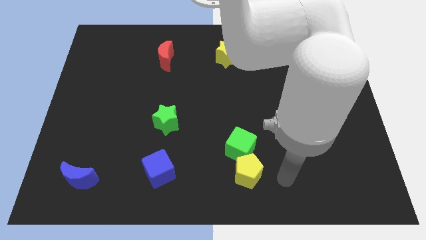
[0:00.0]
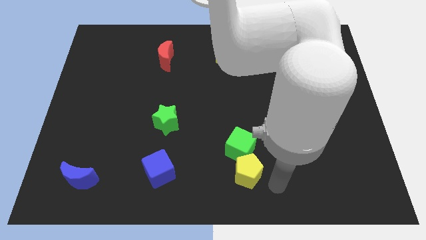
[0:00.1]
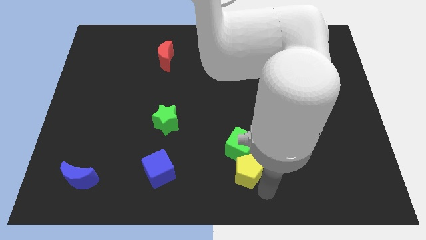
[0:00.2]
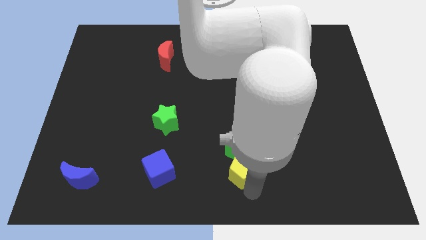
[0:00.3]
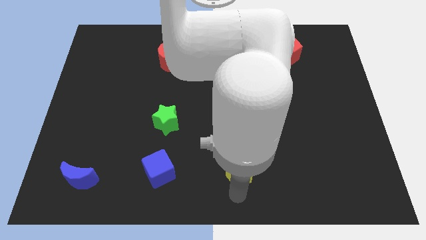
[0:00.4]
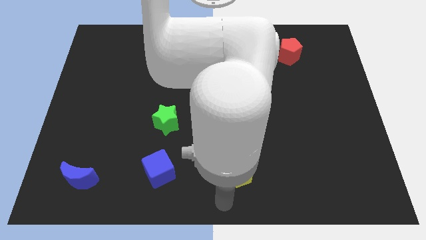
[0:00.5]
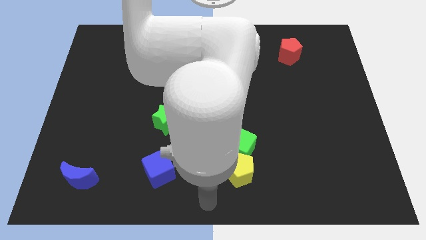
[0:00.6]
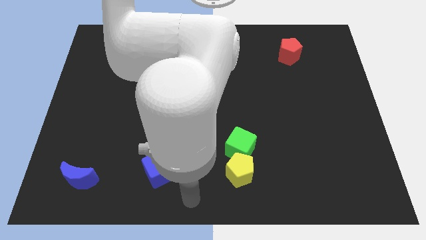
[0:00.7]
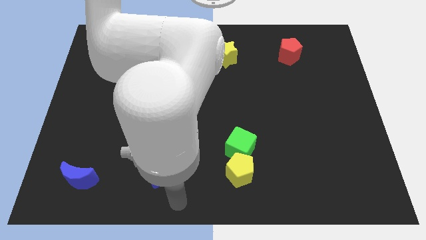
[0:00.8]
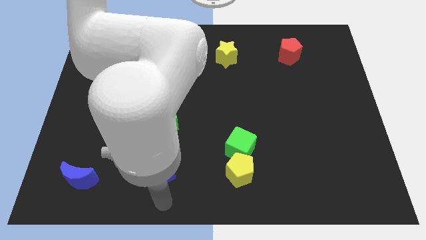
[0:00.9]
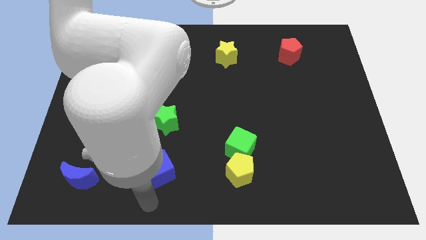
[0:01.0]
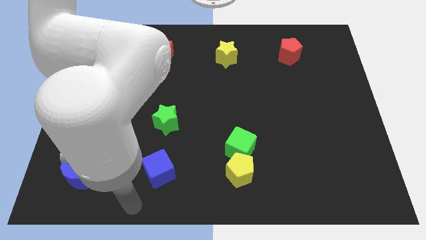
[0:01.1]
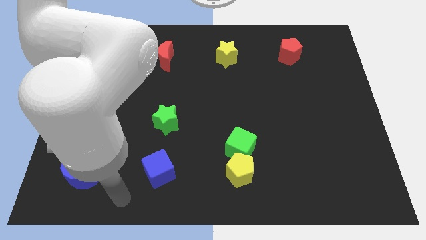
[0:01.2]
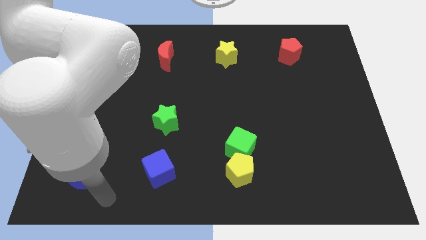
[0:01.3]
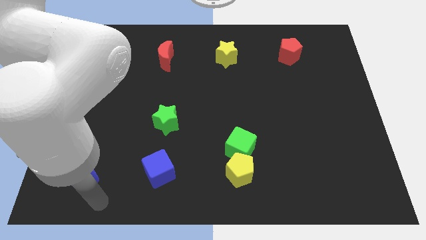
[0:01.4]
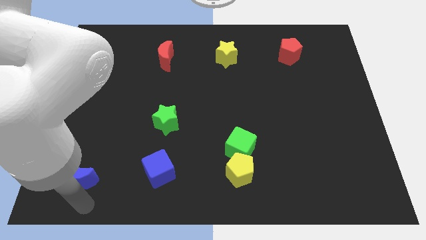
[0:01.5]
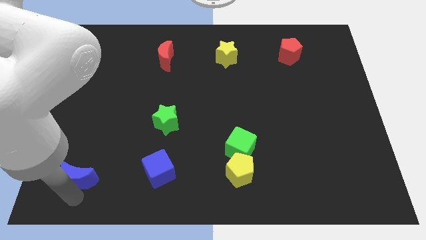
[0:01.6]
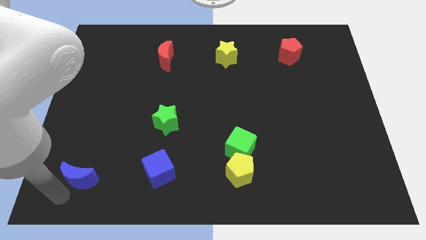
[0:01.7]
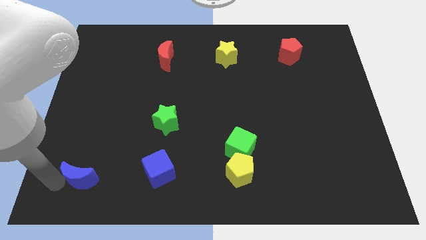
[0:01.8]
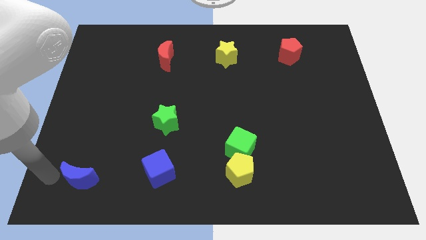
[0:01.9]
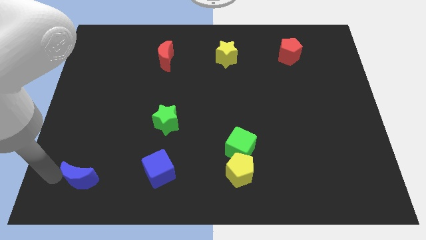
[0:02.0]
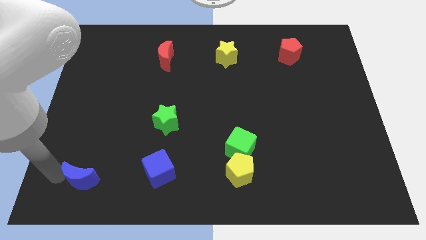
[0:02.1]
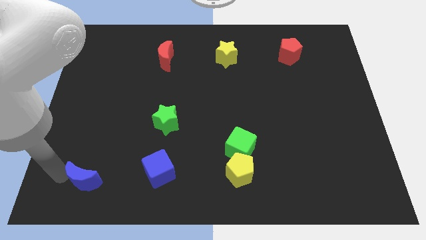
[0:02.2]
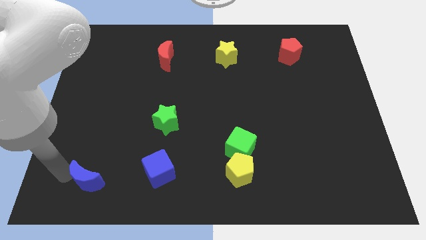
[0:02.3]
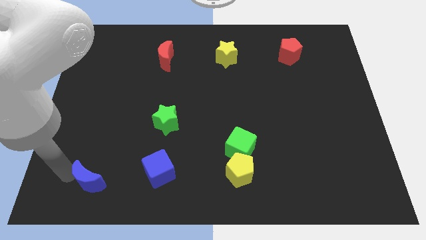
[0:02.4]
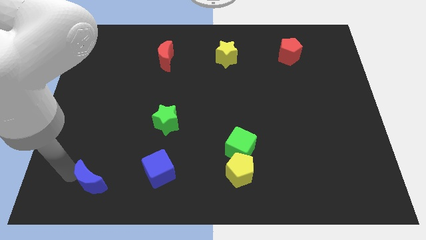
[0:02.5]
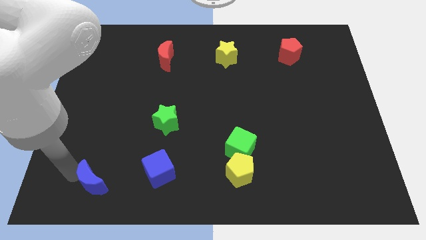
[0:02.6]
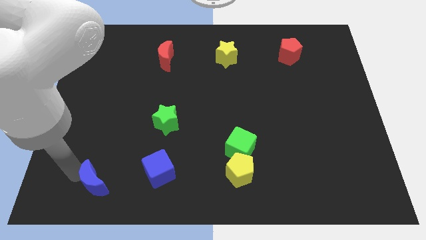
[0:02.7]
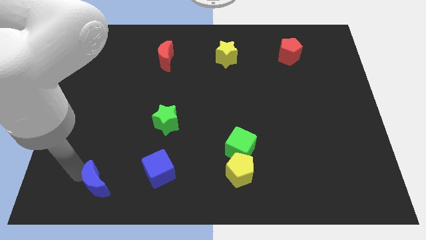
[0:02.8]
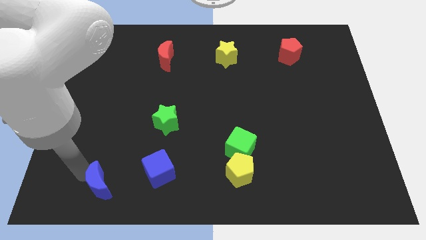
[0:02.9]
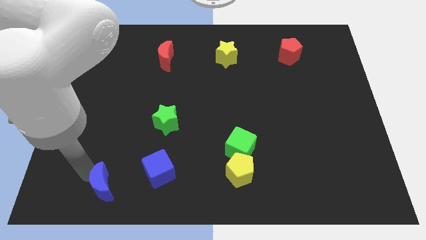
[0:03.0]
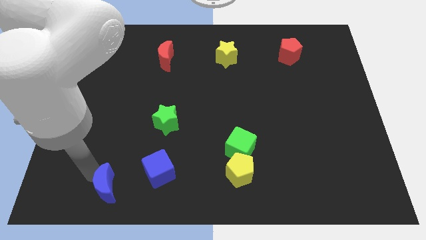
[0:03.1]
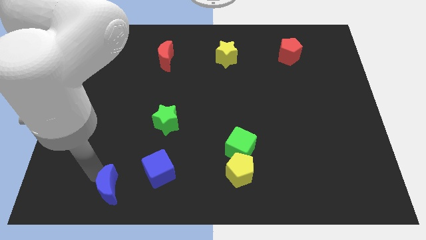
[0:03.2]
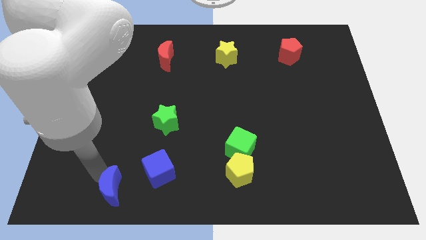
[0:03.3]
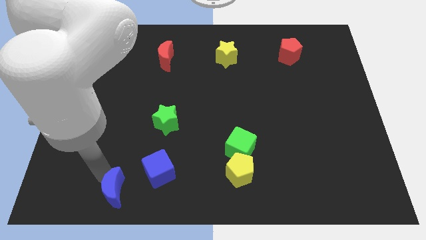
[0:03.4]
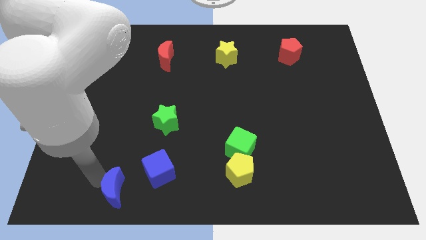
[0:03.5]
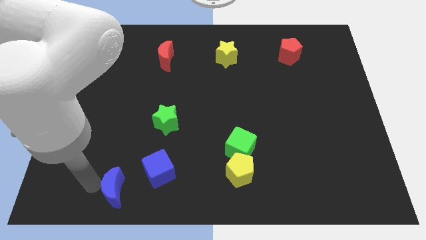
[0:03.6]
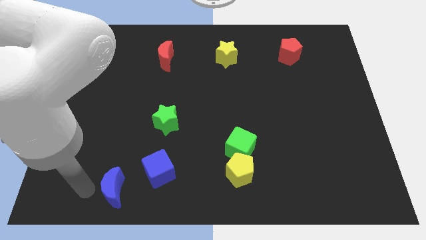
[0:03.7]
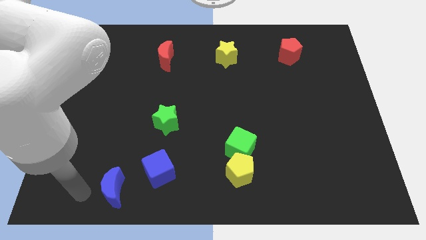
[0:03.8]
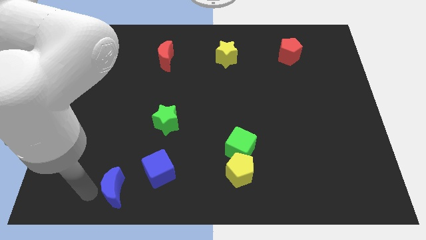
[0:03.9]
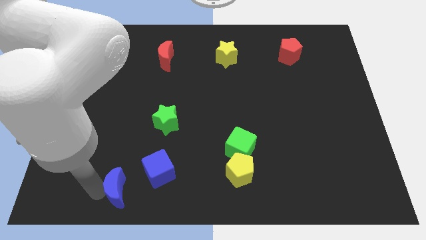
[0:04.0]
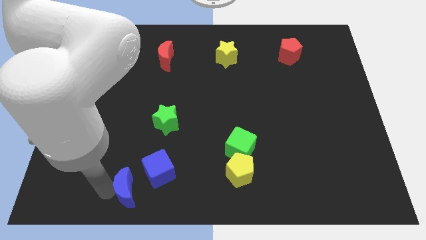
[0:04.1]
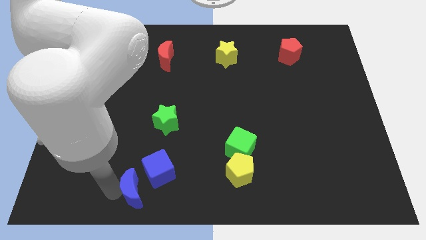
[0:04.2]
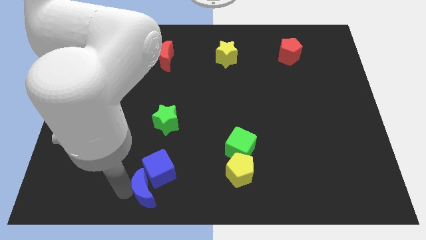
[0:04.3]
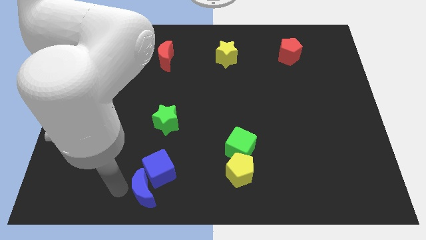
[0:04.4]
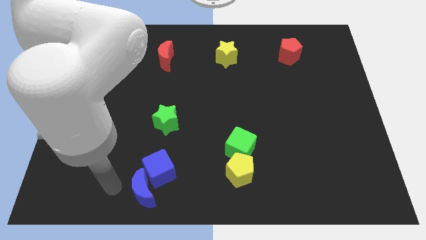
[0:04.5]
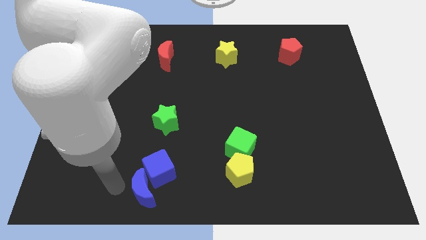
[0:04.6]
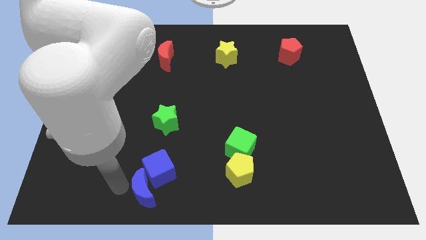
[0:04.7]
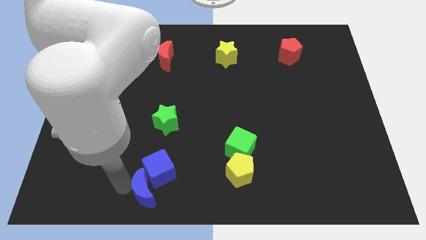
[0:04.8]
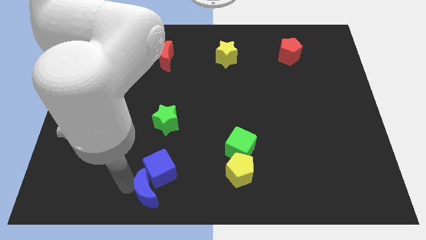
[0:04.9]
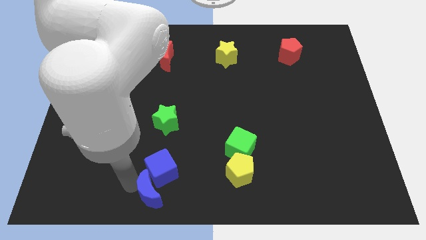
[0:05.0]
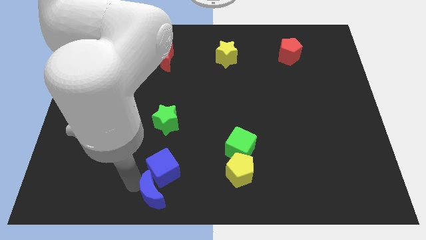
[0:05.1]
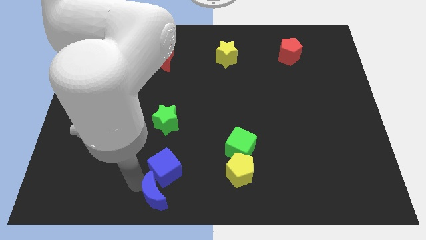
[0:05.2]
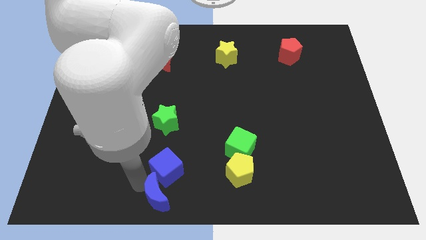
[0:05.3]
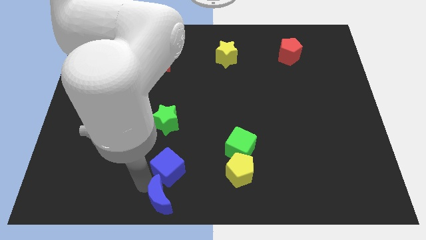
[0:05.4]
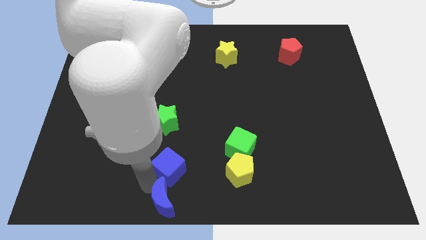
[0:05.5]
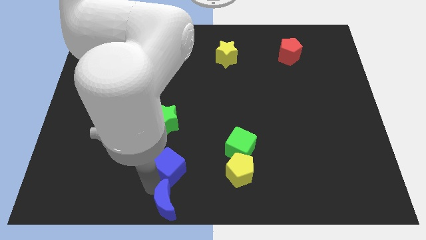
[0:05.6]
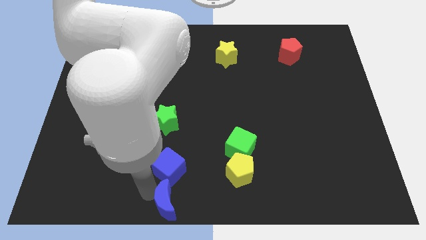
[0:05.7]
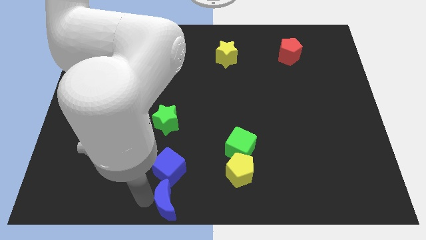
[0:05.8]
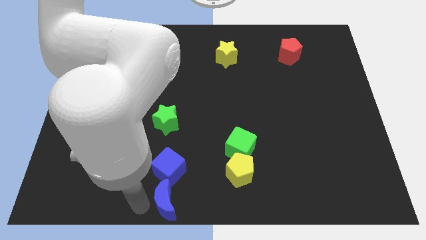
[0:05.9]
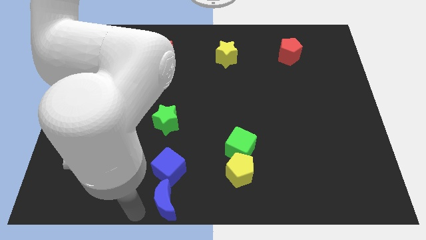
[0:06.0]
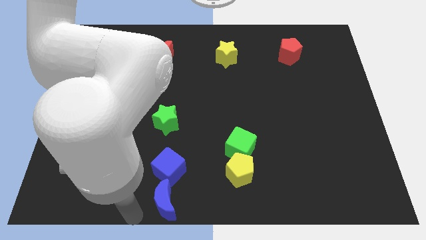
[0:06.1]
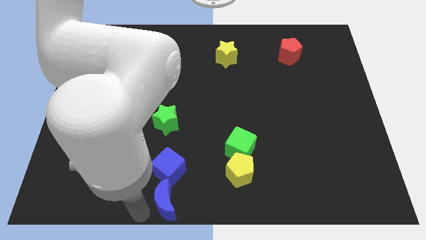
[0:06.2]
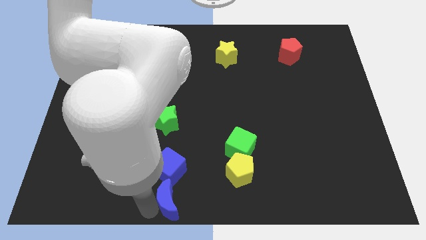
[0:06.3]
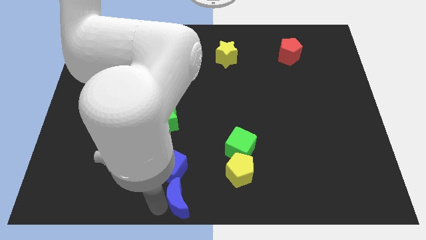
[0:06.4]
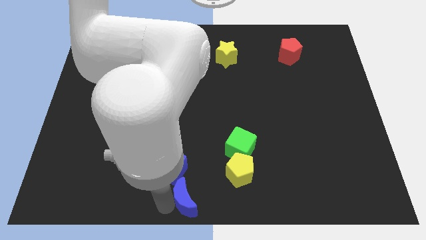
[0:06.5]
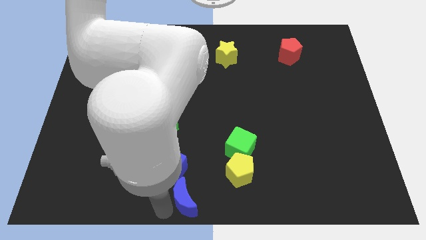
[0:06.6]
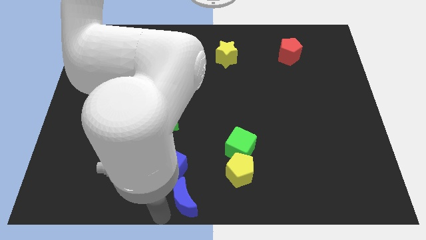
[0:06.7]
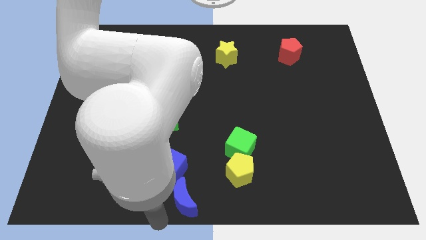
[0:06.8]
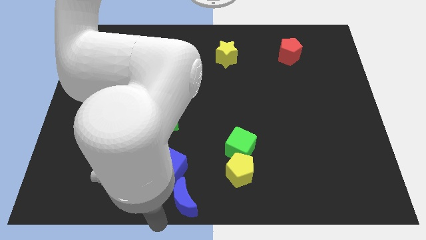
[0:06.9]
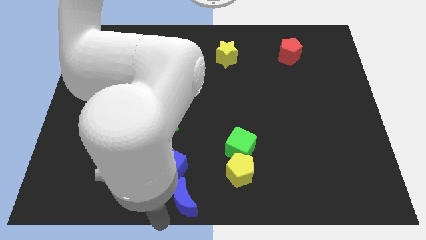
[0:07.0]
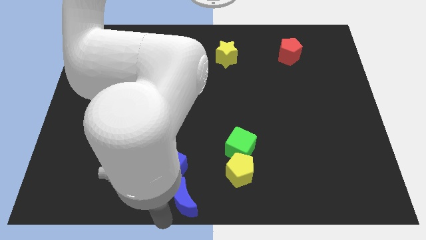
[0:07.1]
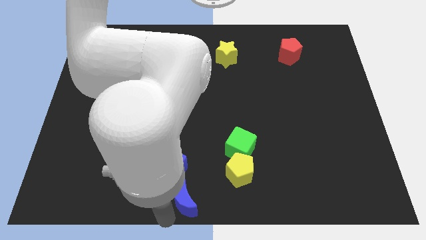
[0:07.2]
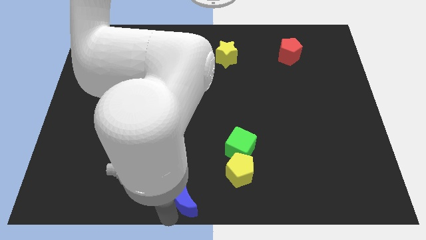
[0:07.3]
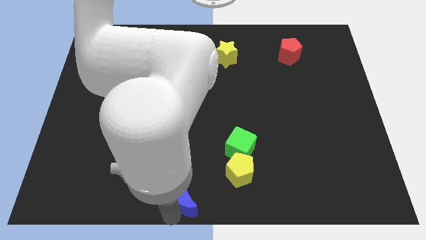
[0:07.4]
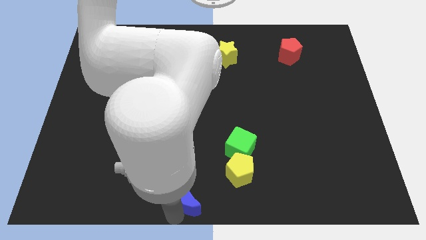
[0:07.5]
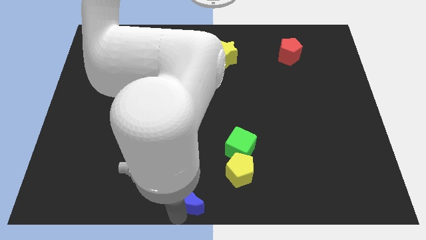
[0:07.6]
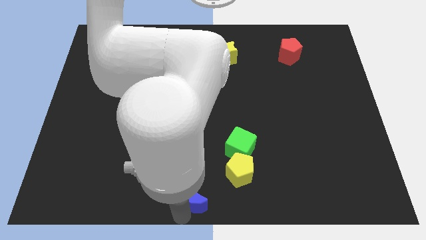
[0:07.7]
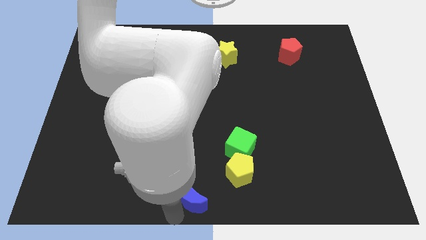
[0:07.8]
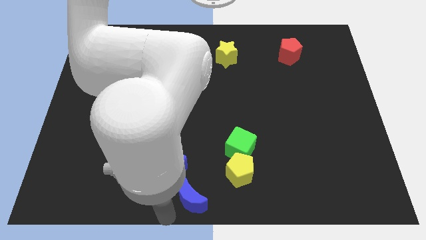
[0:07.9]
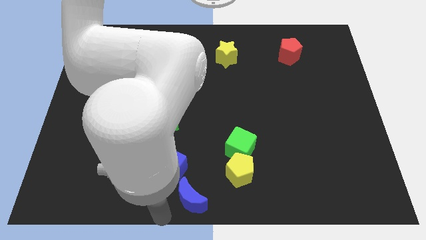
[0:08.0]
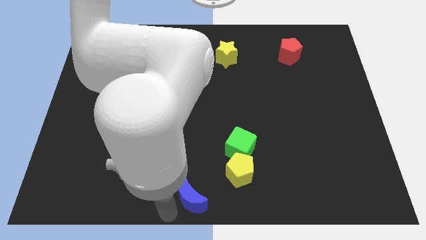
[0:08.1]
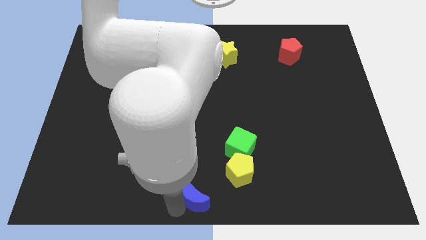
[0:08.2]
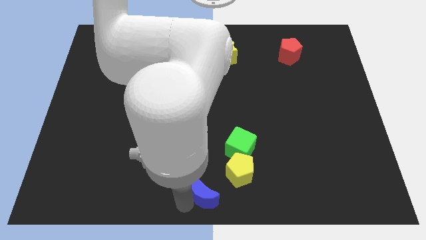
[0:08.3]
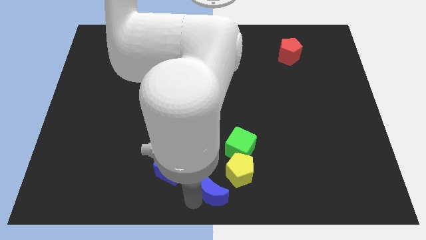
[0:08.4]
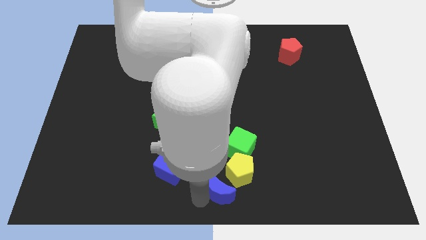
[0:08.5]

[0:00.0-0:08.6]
put the blue moon to the yellow pentagon
